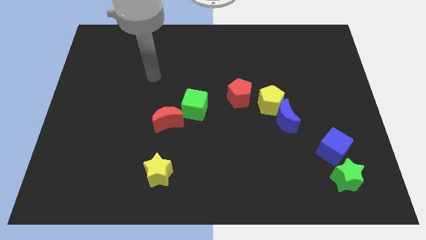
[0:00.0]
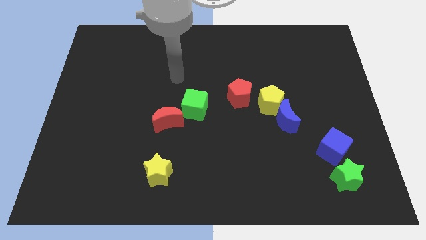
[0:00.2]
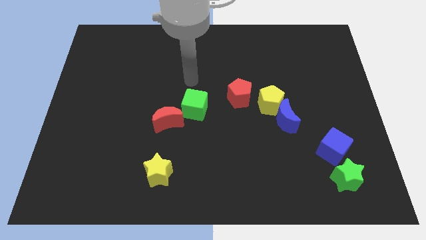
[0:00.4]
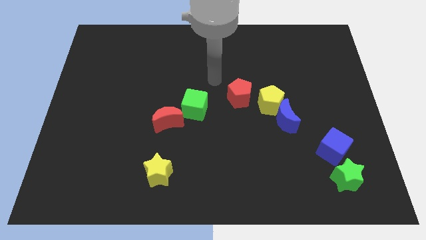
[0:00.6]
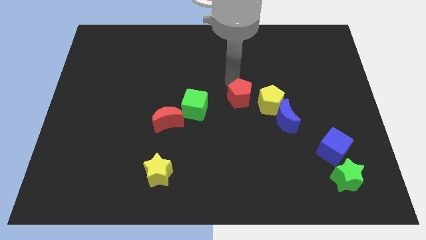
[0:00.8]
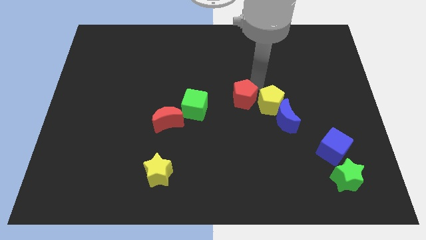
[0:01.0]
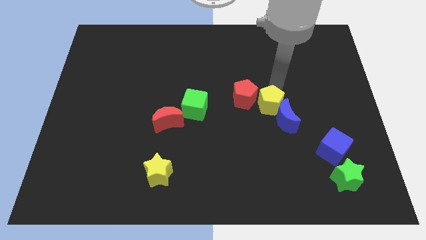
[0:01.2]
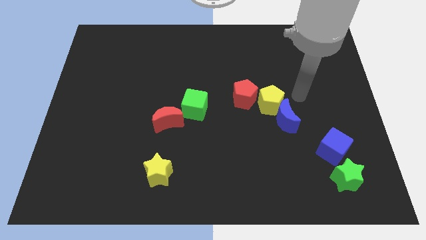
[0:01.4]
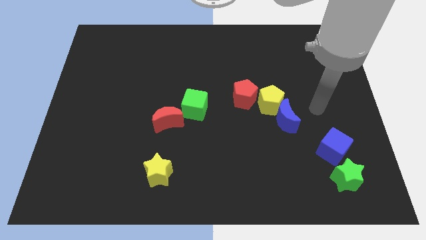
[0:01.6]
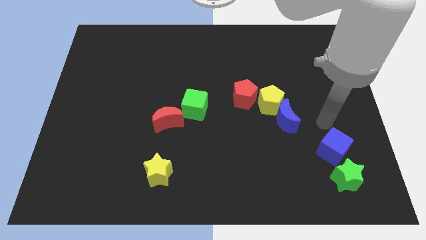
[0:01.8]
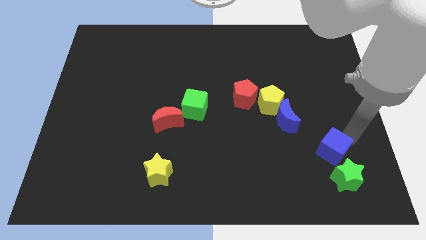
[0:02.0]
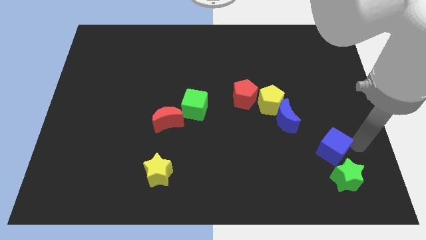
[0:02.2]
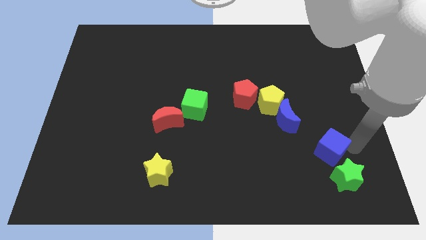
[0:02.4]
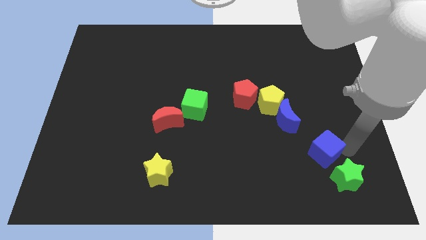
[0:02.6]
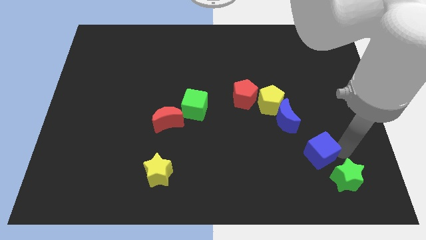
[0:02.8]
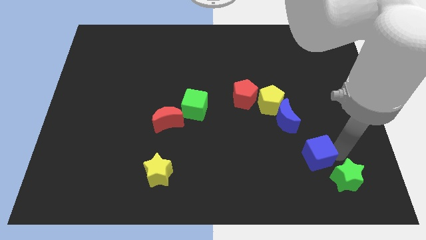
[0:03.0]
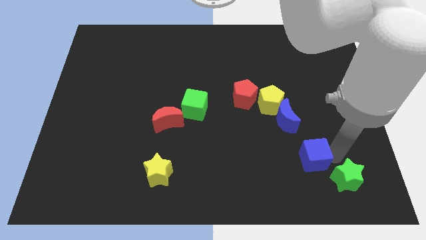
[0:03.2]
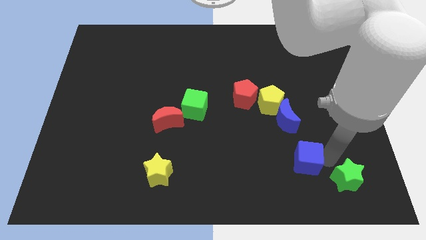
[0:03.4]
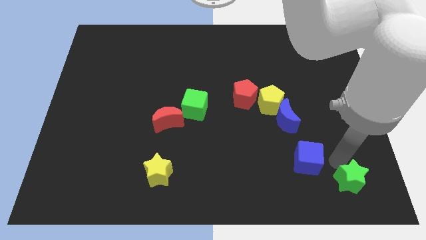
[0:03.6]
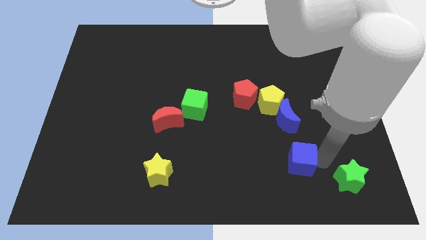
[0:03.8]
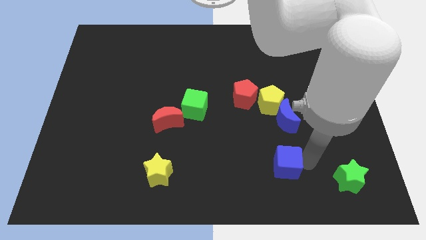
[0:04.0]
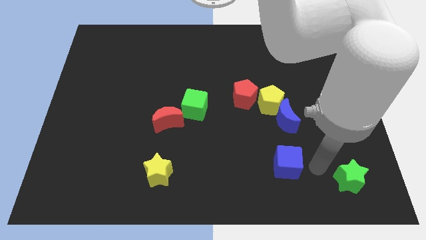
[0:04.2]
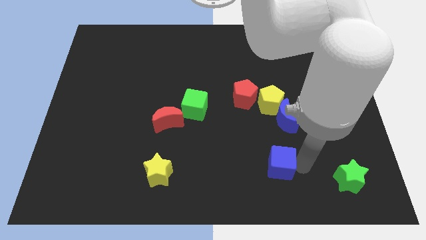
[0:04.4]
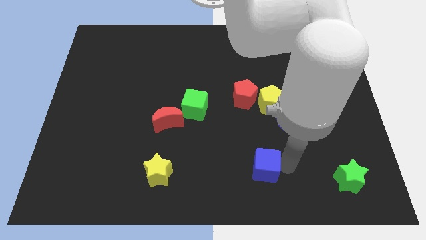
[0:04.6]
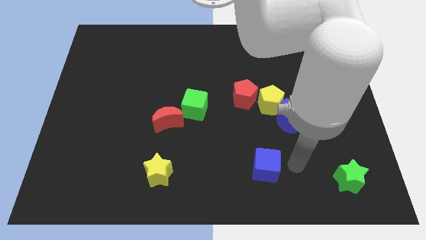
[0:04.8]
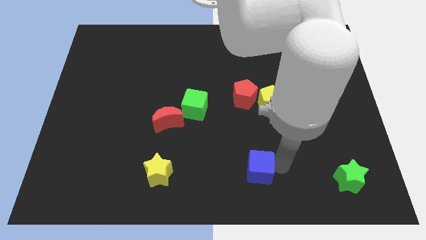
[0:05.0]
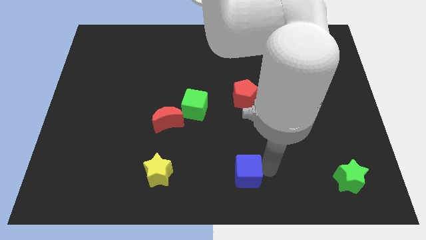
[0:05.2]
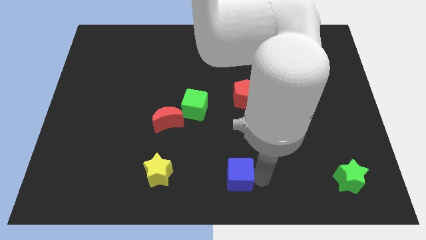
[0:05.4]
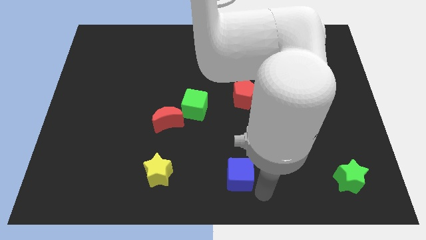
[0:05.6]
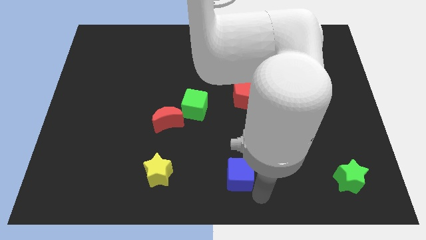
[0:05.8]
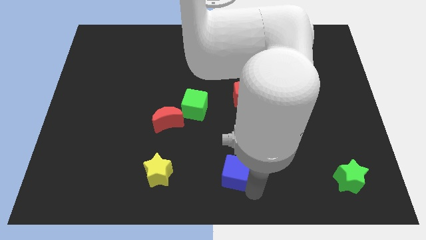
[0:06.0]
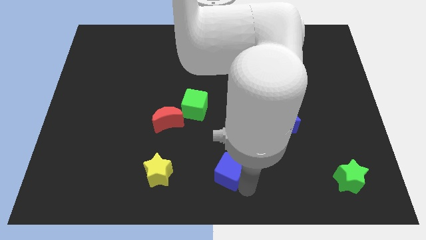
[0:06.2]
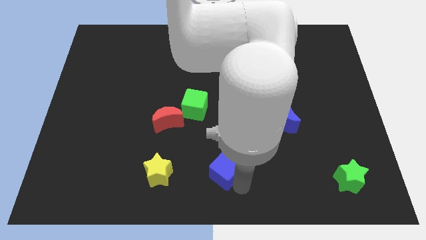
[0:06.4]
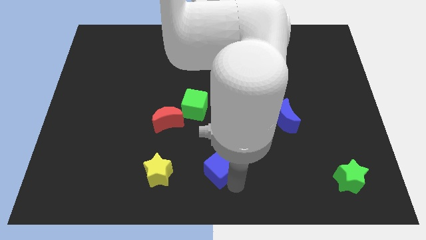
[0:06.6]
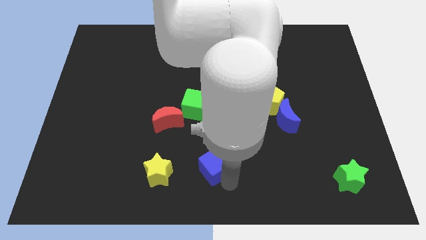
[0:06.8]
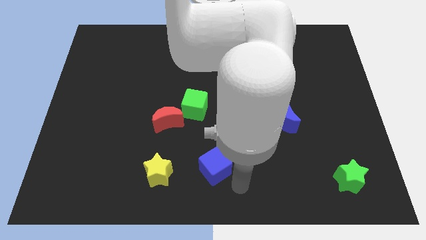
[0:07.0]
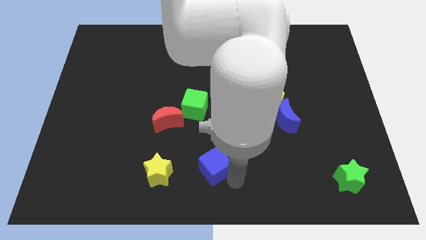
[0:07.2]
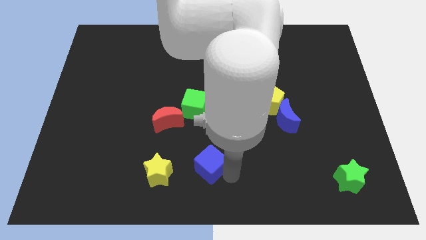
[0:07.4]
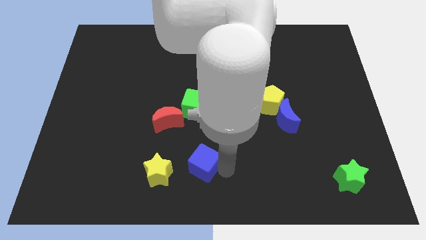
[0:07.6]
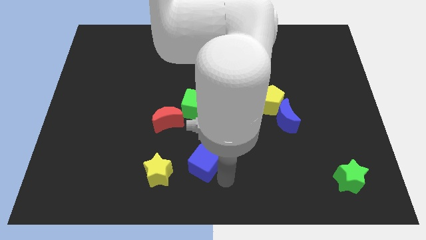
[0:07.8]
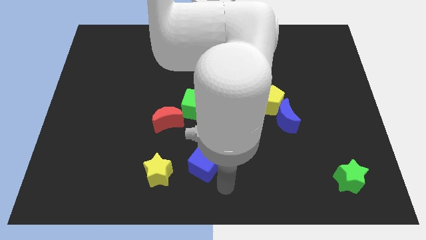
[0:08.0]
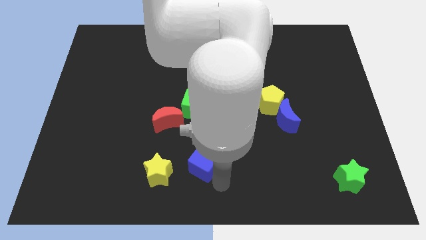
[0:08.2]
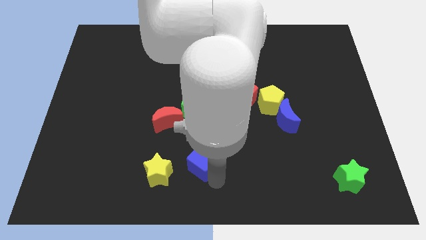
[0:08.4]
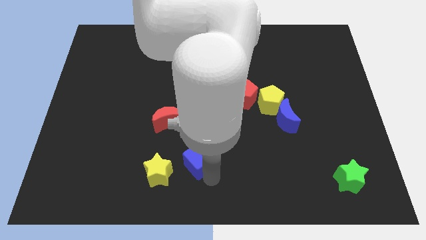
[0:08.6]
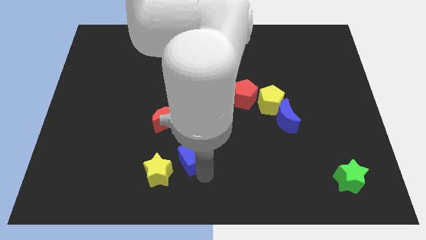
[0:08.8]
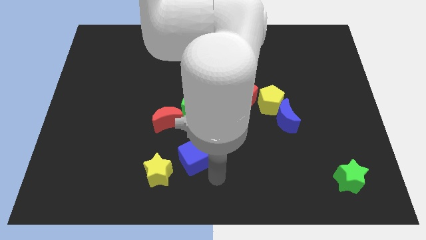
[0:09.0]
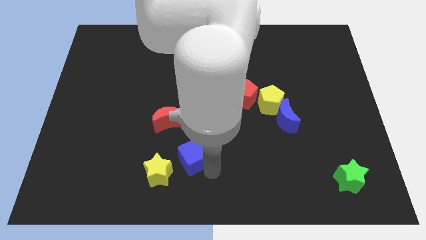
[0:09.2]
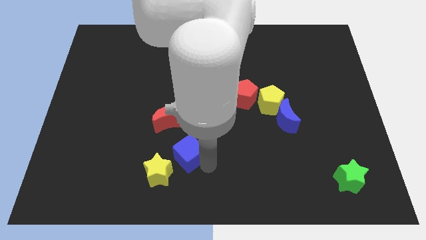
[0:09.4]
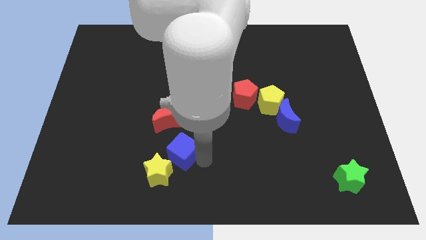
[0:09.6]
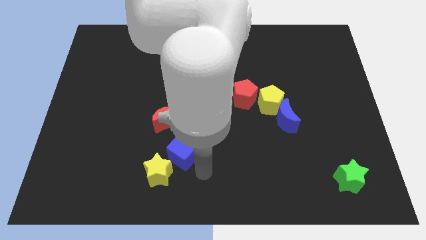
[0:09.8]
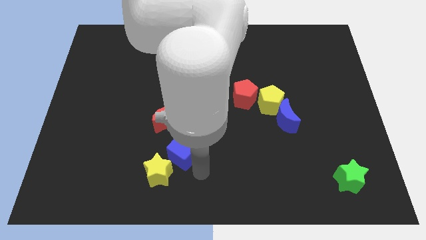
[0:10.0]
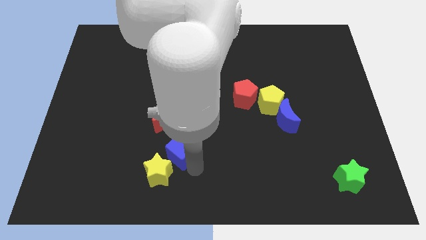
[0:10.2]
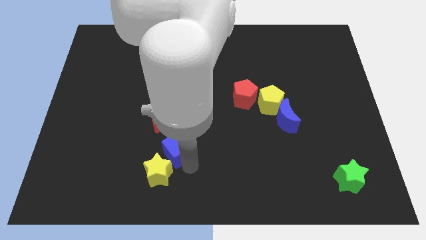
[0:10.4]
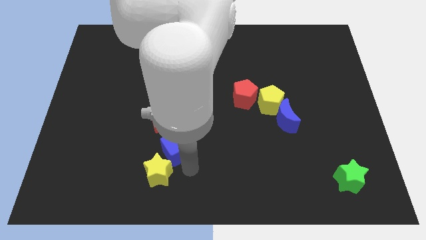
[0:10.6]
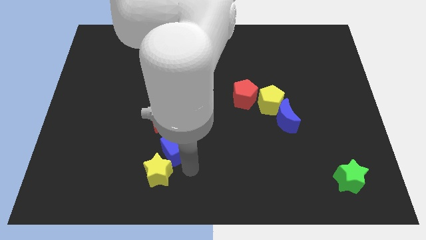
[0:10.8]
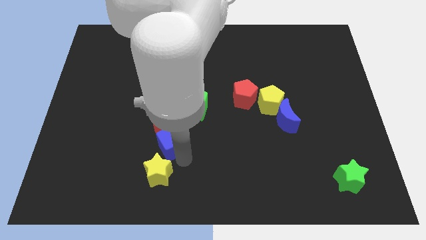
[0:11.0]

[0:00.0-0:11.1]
slide the blue cube to the bottom left of the green cube

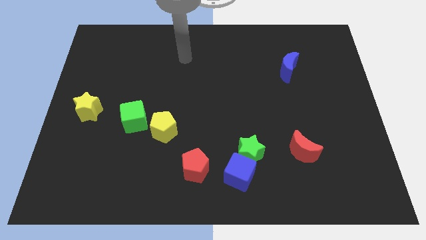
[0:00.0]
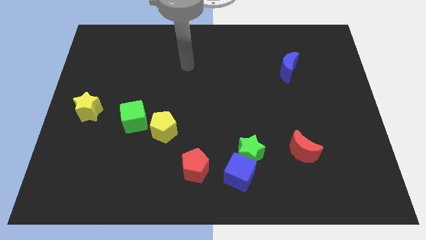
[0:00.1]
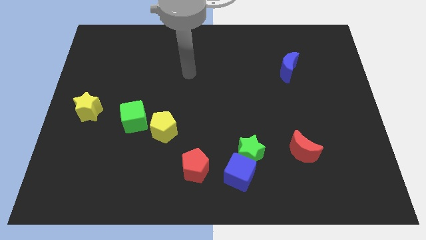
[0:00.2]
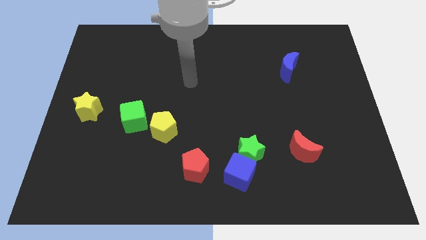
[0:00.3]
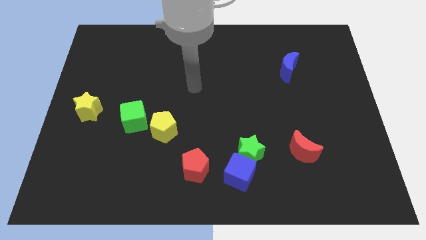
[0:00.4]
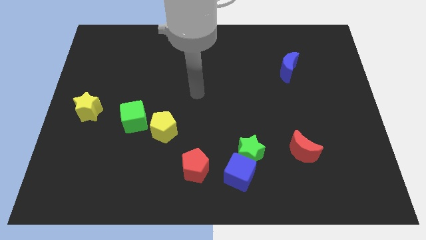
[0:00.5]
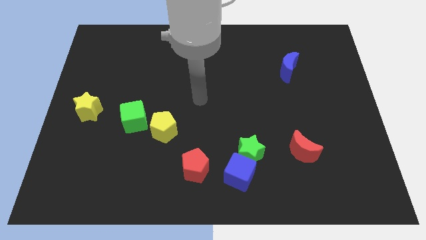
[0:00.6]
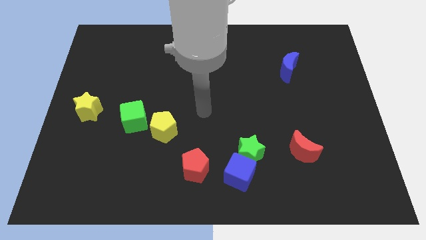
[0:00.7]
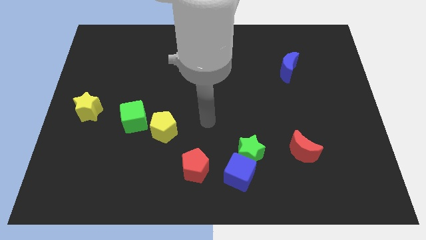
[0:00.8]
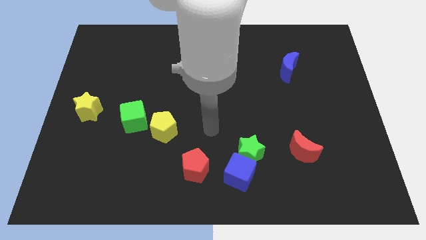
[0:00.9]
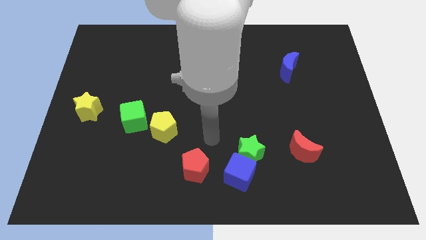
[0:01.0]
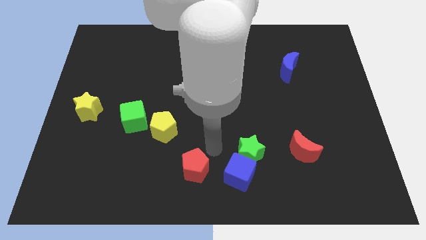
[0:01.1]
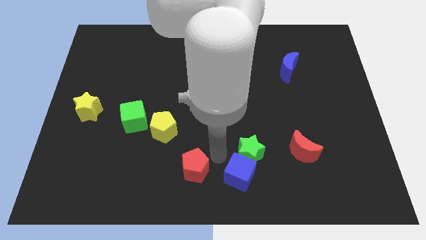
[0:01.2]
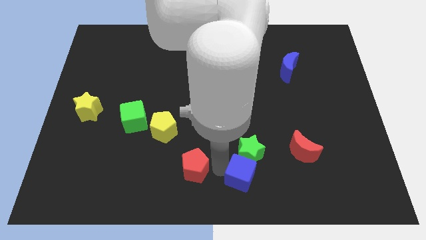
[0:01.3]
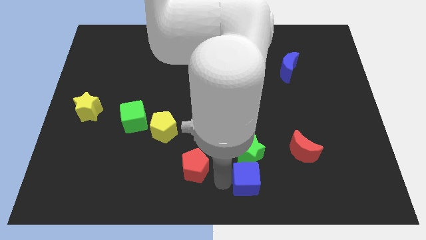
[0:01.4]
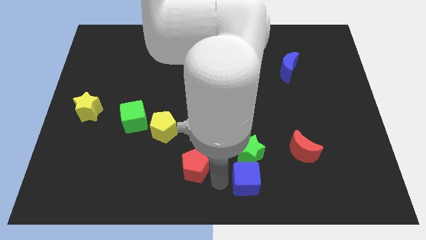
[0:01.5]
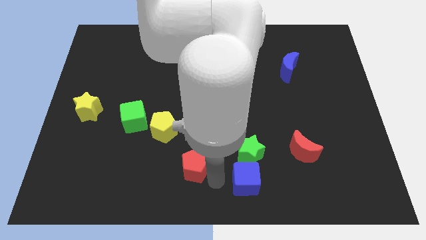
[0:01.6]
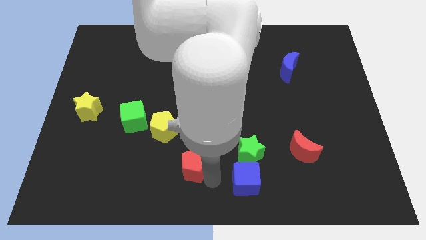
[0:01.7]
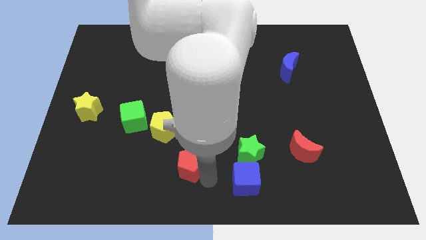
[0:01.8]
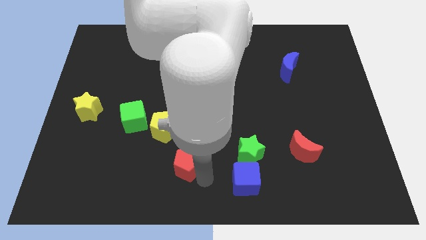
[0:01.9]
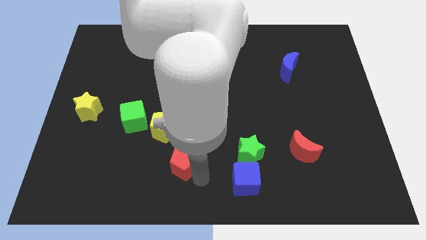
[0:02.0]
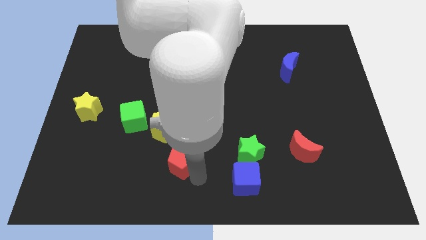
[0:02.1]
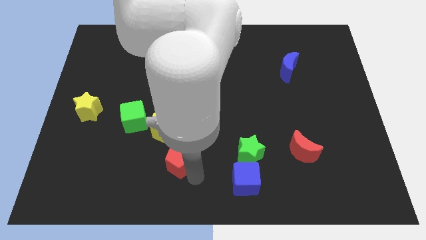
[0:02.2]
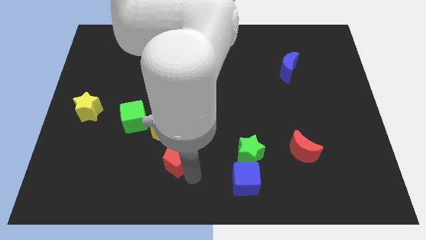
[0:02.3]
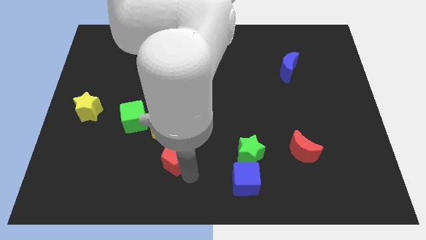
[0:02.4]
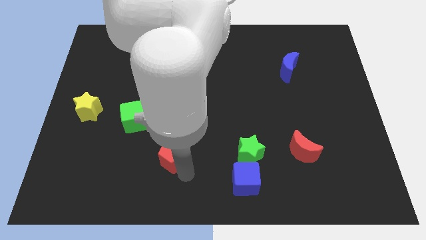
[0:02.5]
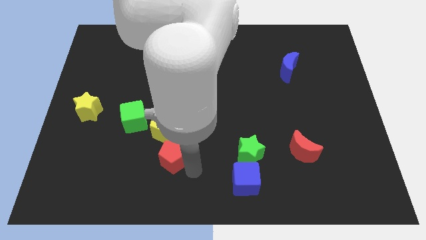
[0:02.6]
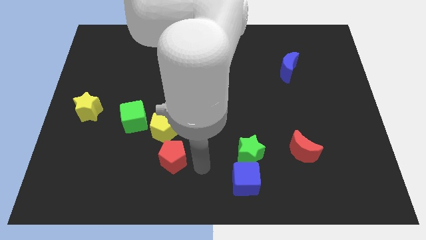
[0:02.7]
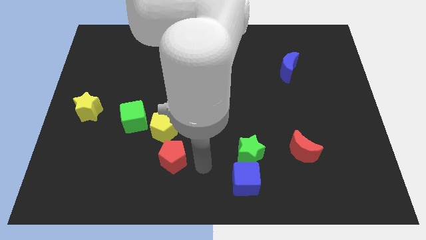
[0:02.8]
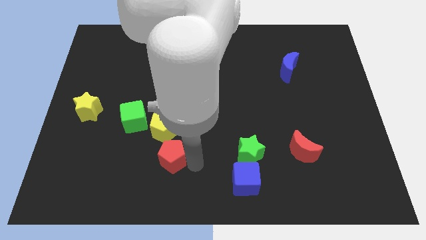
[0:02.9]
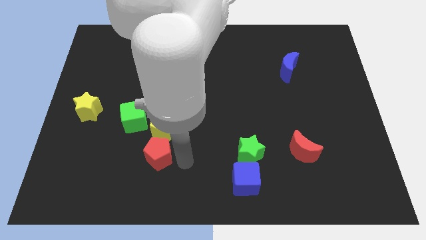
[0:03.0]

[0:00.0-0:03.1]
move the red pentagon to the bottom left of the yellow pentagon
